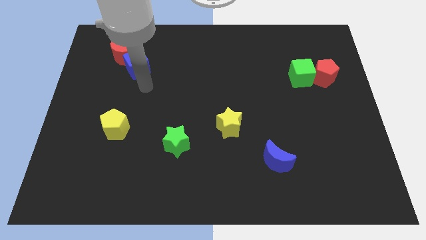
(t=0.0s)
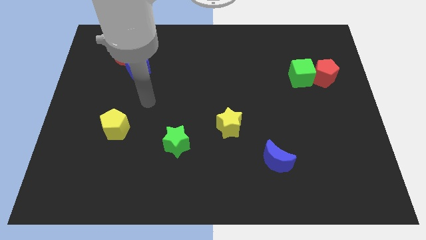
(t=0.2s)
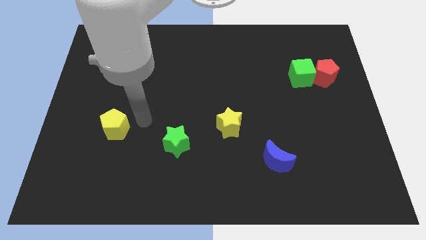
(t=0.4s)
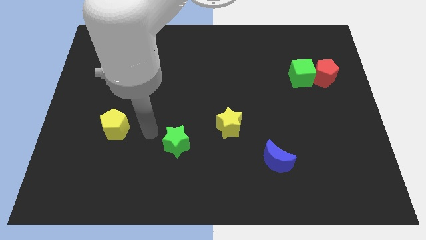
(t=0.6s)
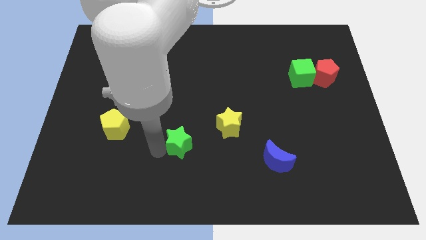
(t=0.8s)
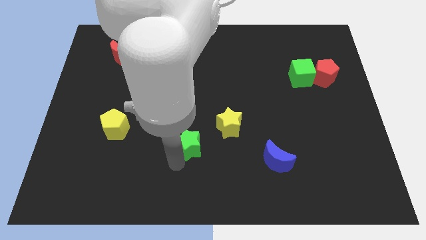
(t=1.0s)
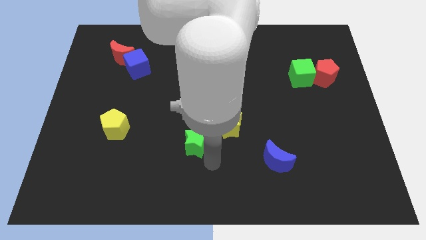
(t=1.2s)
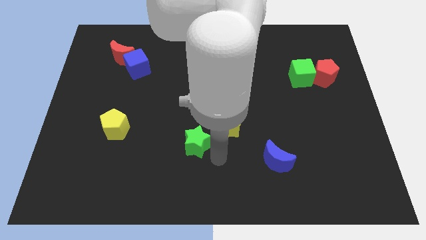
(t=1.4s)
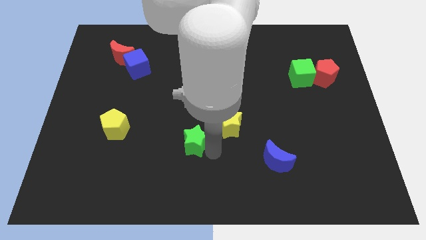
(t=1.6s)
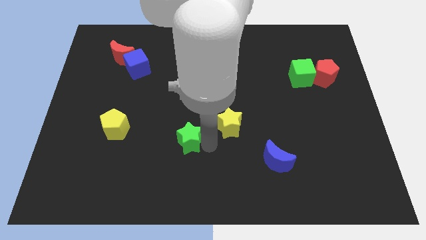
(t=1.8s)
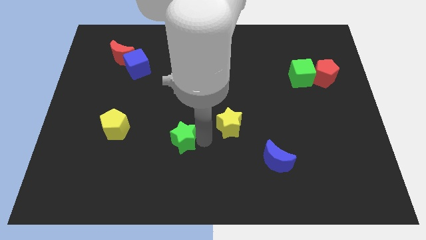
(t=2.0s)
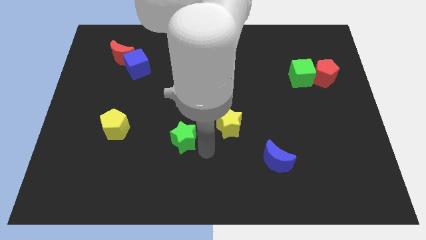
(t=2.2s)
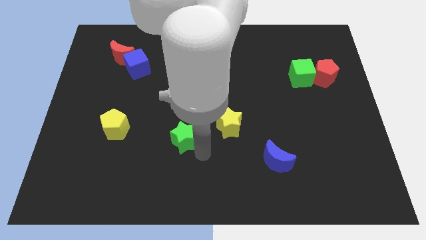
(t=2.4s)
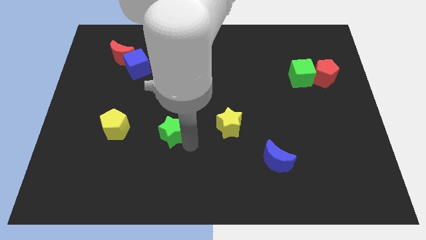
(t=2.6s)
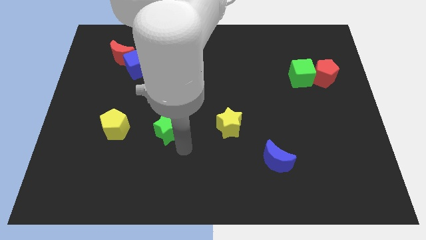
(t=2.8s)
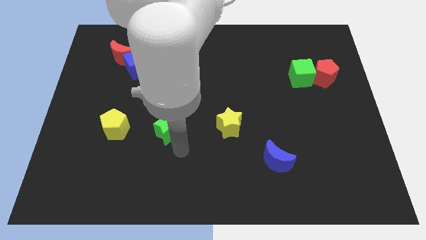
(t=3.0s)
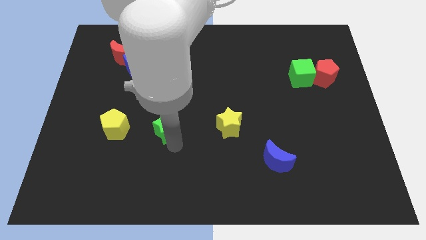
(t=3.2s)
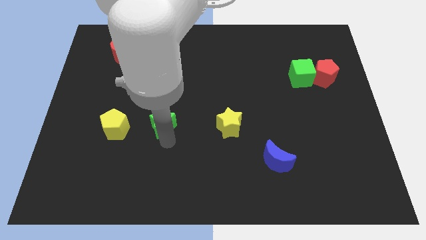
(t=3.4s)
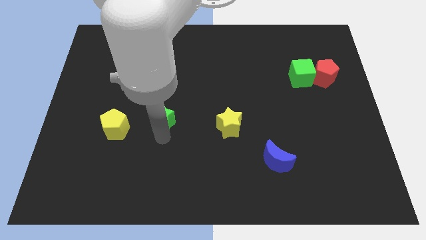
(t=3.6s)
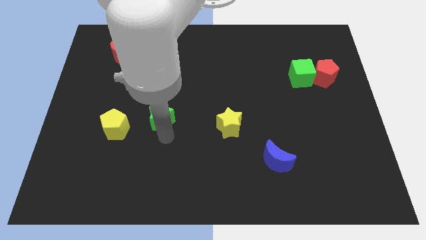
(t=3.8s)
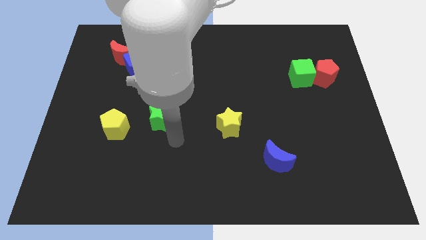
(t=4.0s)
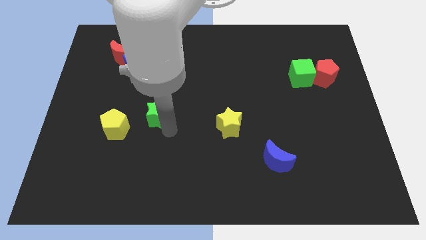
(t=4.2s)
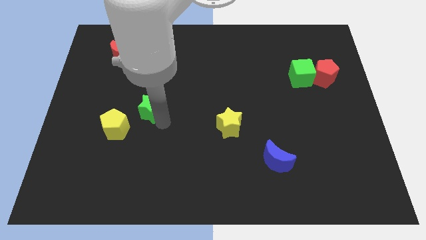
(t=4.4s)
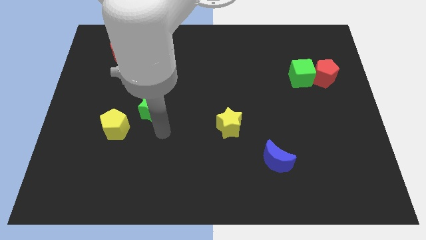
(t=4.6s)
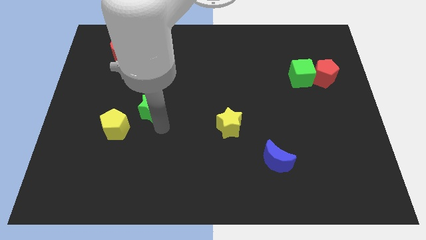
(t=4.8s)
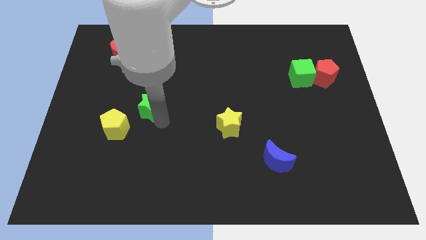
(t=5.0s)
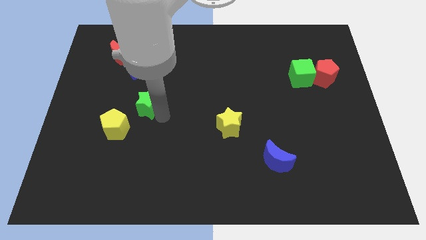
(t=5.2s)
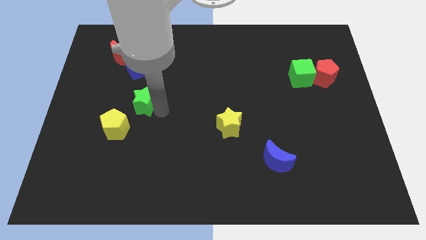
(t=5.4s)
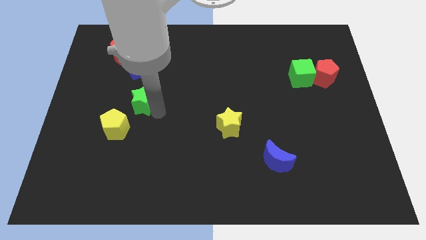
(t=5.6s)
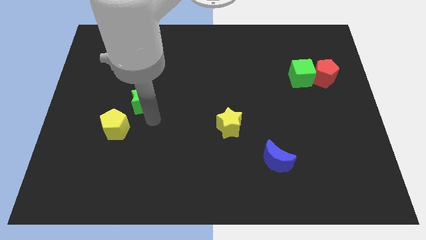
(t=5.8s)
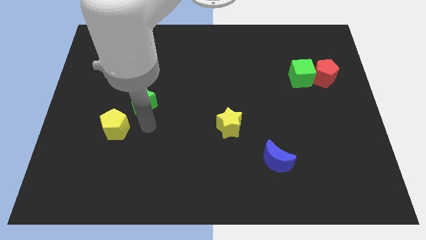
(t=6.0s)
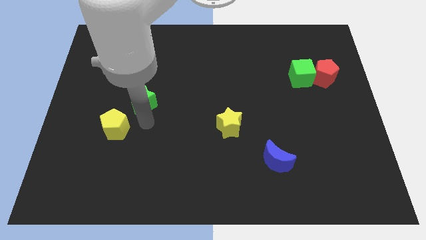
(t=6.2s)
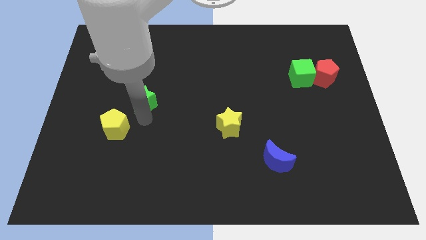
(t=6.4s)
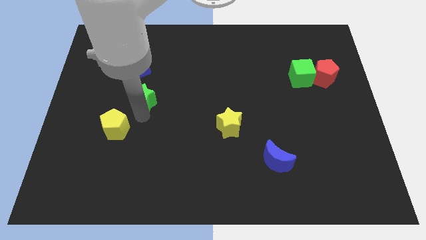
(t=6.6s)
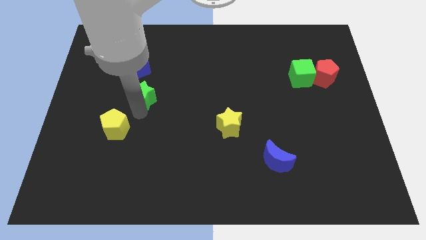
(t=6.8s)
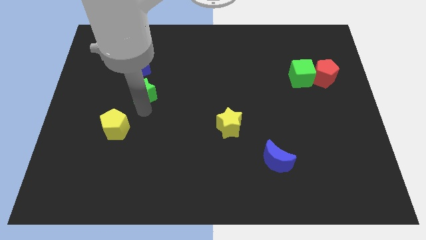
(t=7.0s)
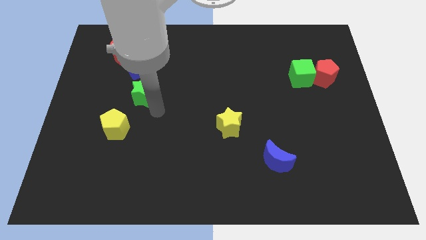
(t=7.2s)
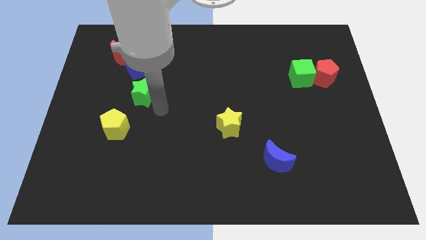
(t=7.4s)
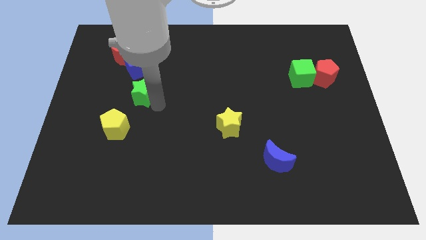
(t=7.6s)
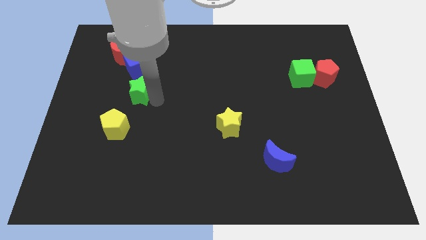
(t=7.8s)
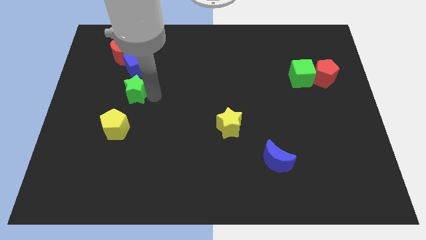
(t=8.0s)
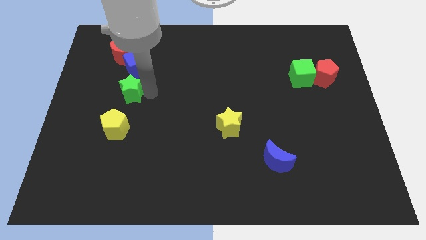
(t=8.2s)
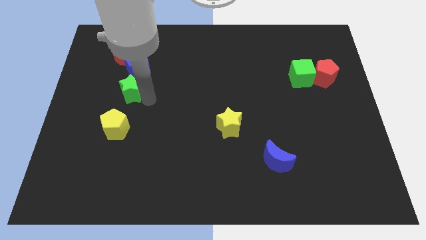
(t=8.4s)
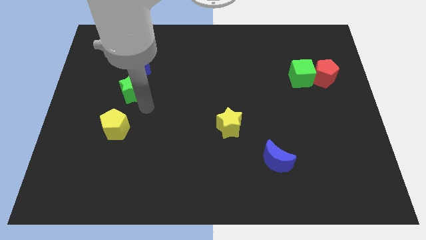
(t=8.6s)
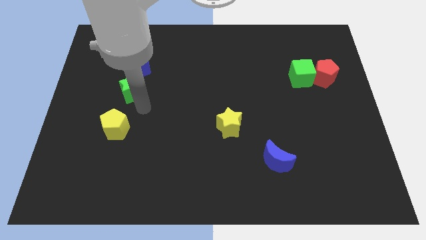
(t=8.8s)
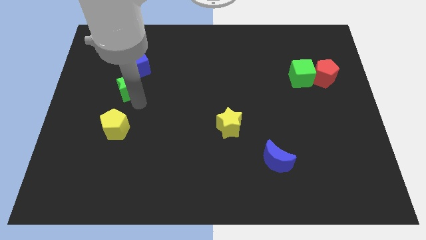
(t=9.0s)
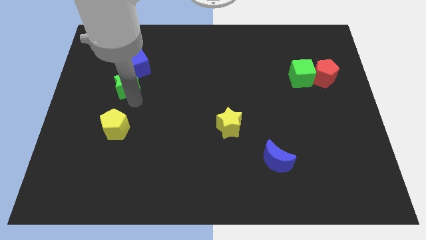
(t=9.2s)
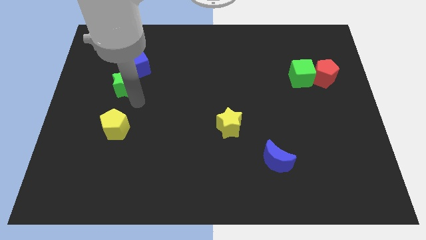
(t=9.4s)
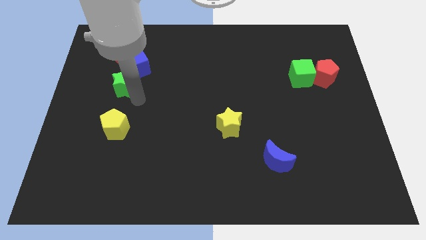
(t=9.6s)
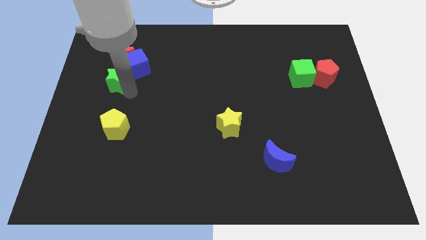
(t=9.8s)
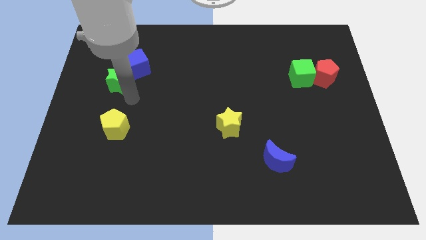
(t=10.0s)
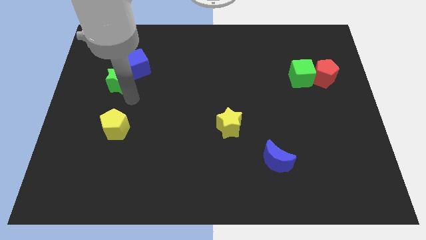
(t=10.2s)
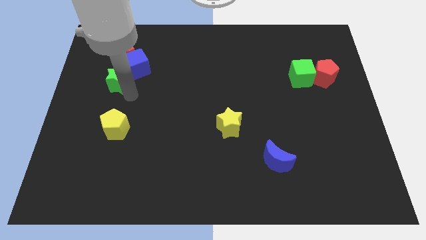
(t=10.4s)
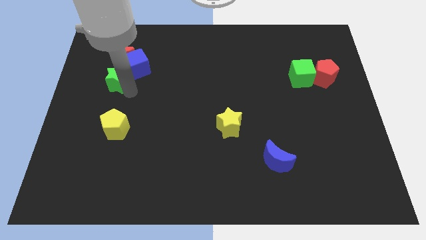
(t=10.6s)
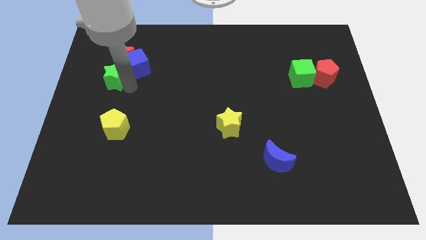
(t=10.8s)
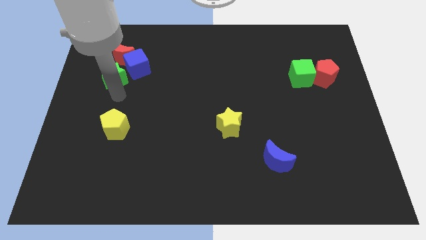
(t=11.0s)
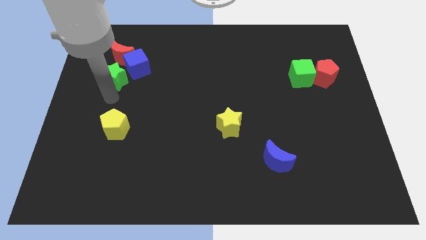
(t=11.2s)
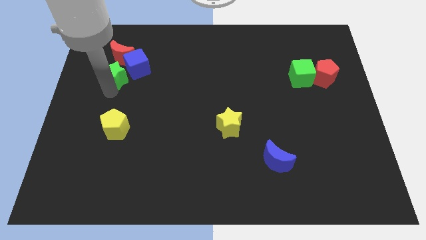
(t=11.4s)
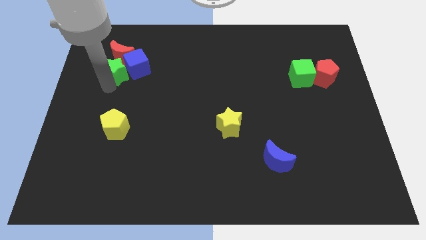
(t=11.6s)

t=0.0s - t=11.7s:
put the green star towards the red moon
